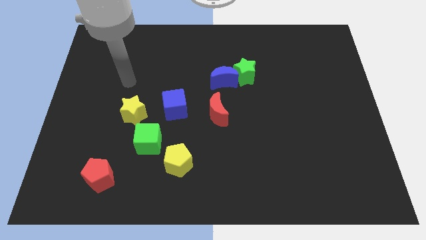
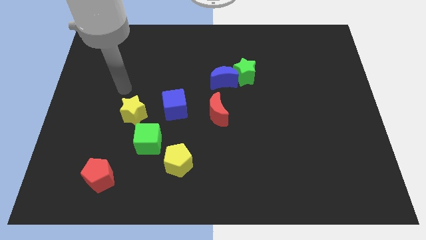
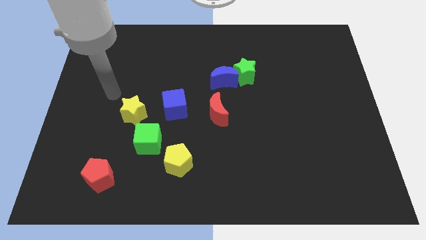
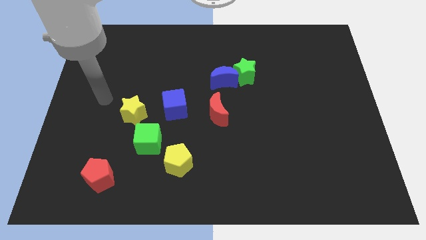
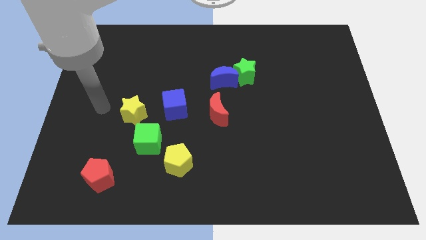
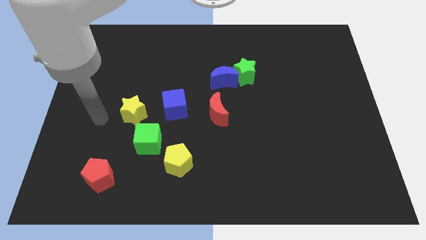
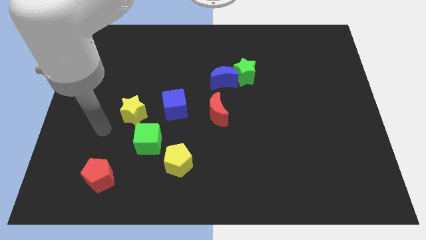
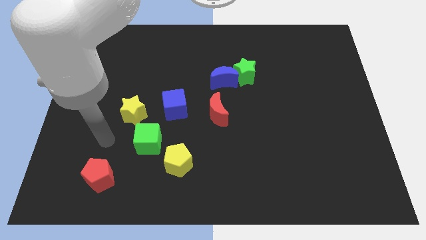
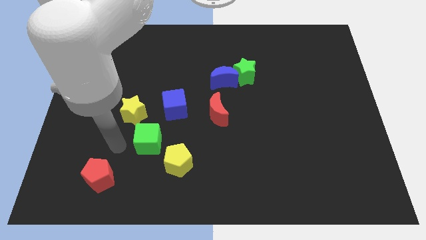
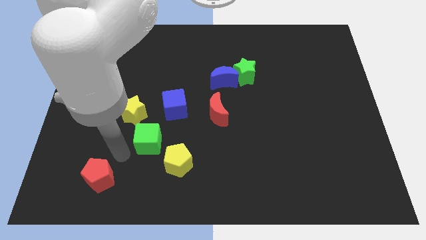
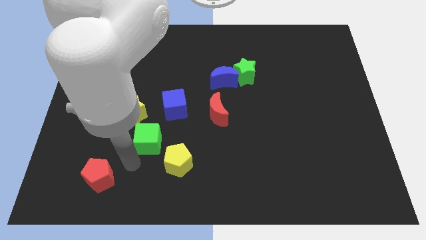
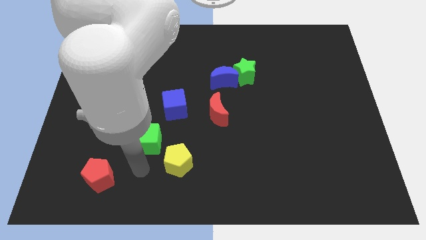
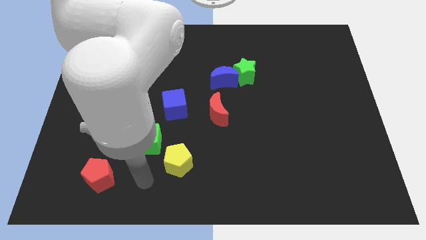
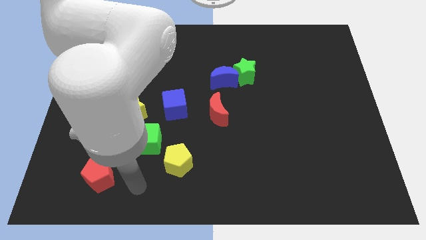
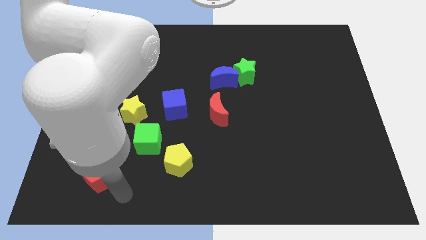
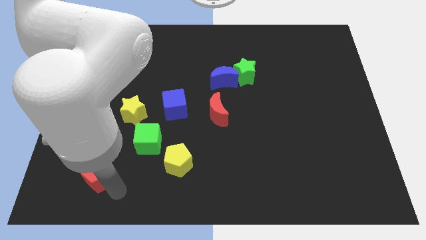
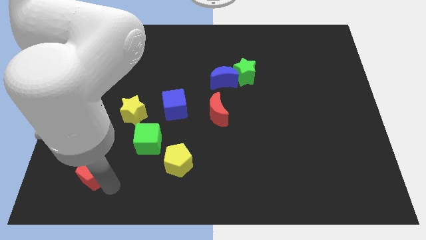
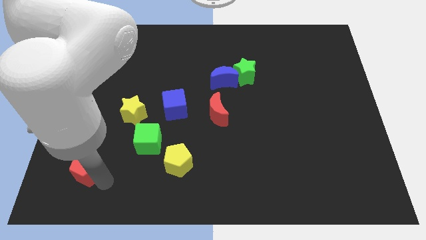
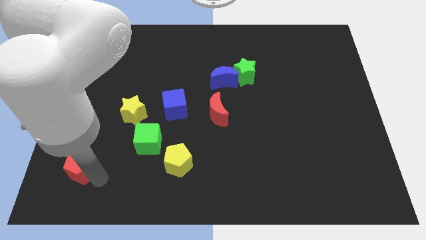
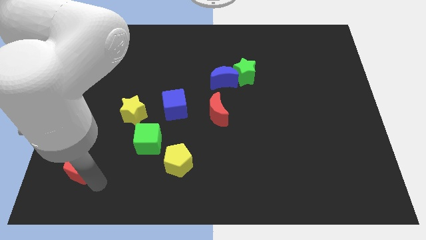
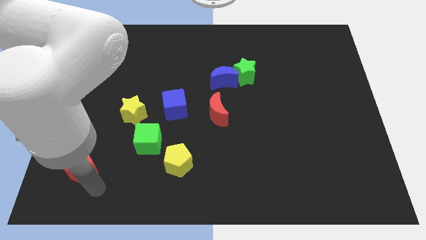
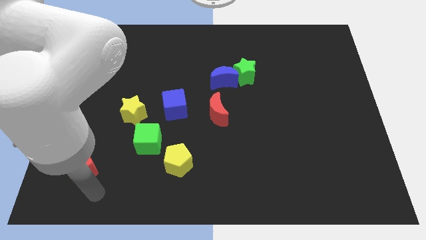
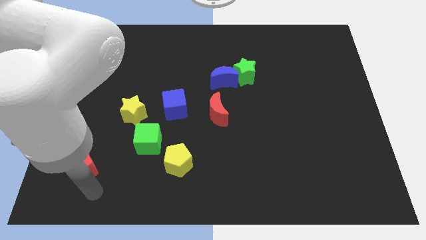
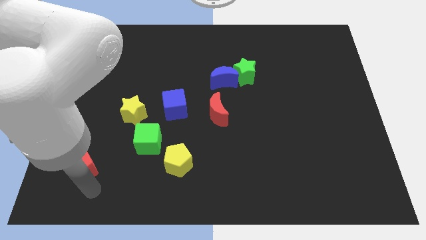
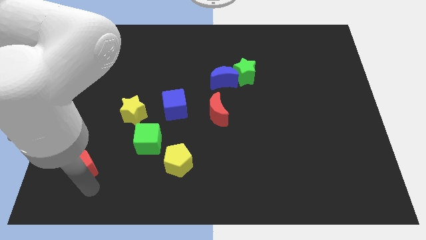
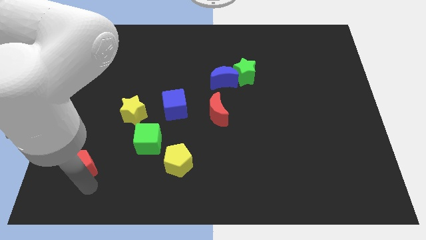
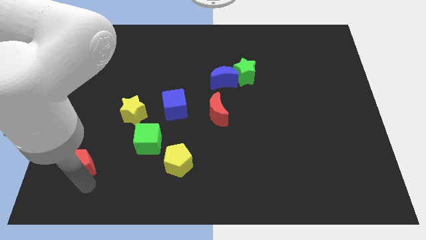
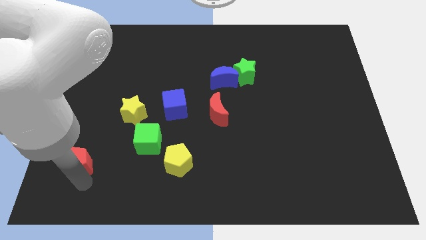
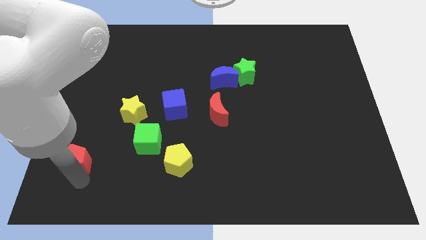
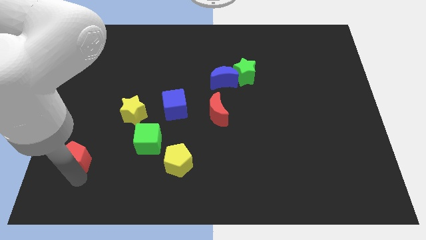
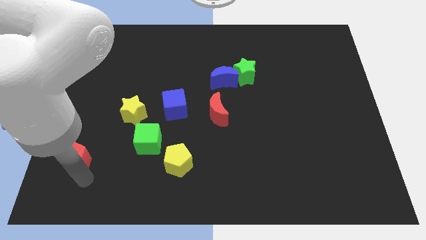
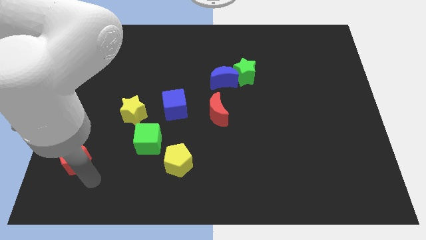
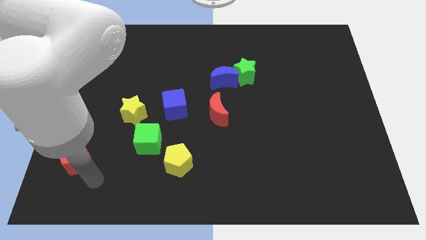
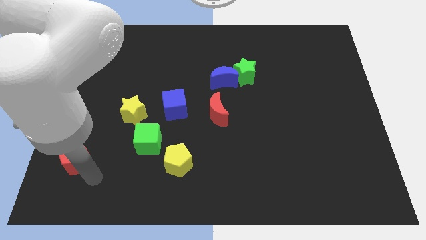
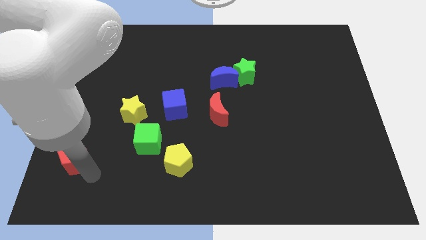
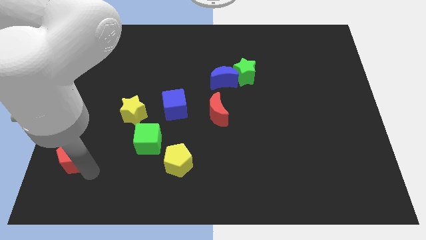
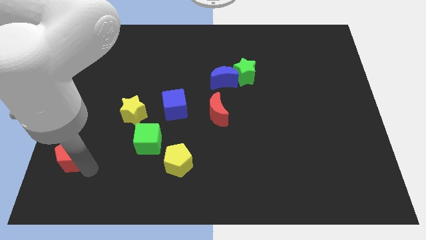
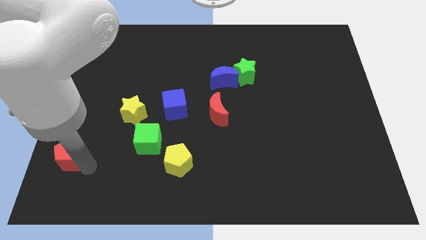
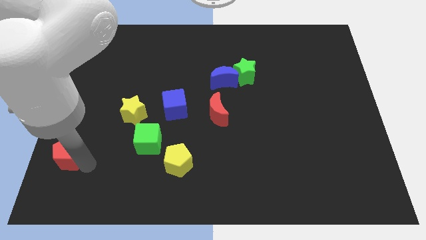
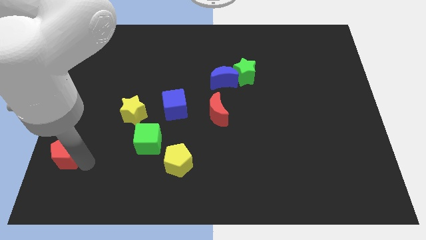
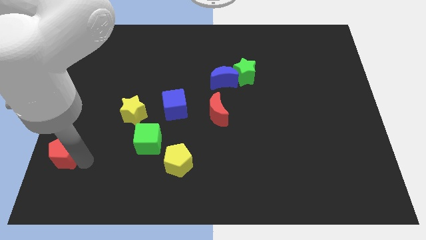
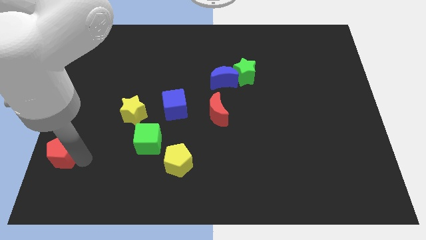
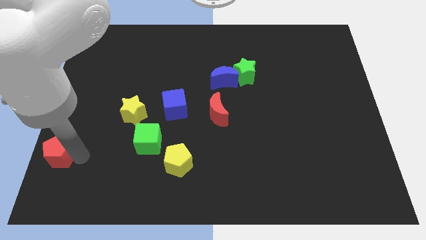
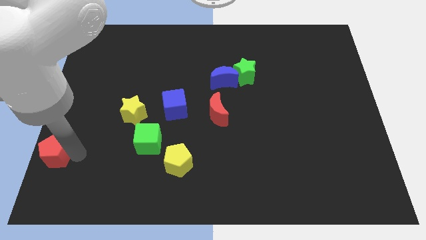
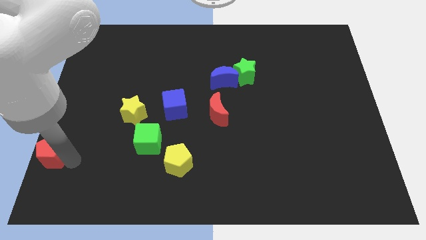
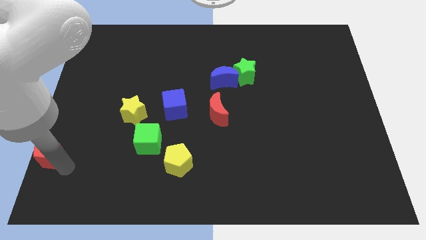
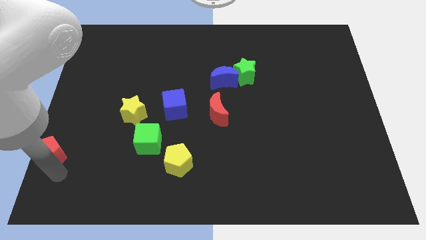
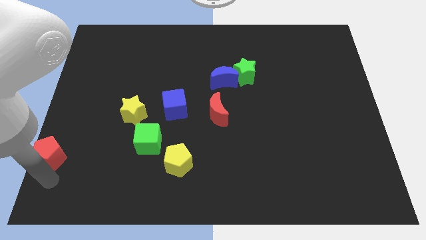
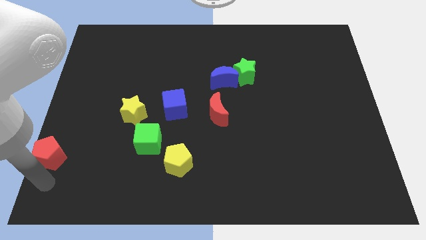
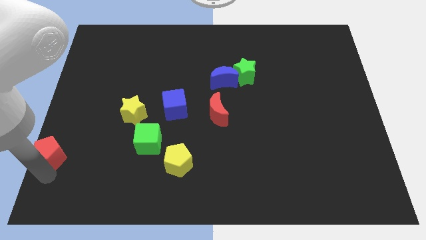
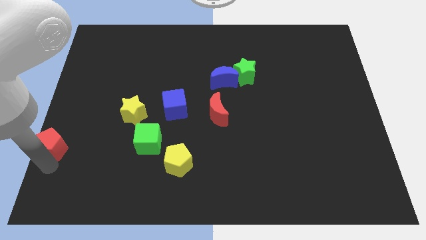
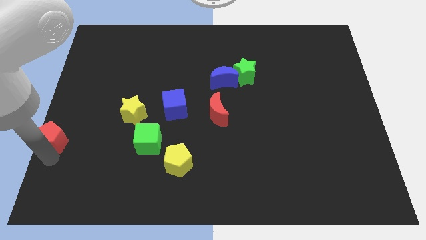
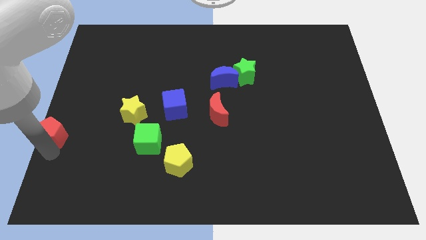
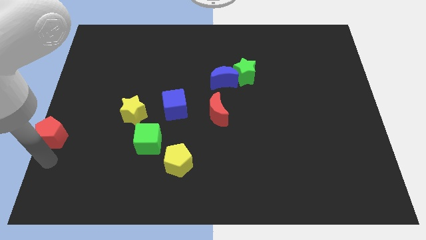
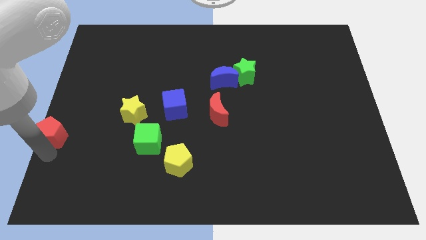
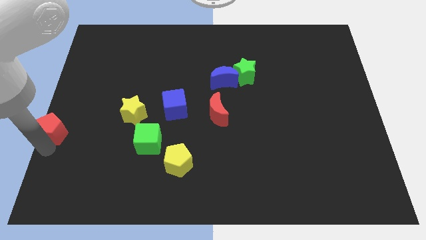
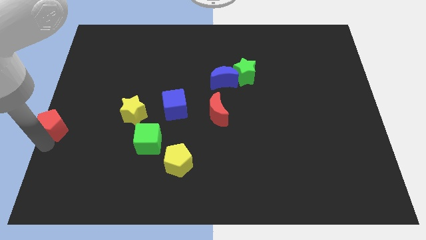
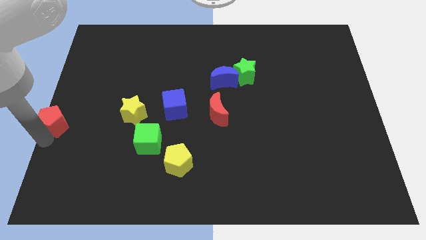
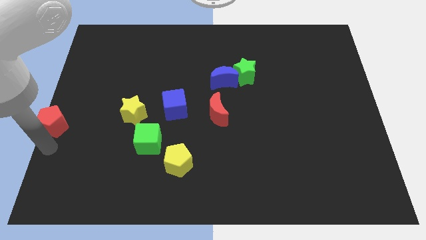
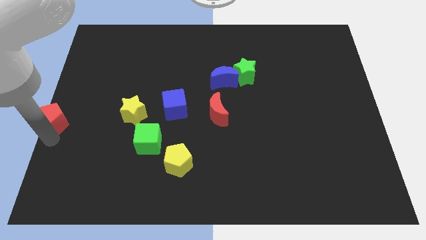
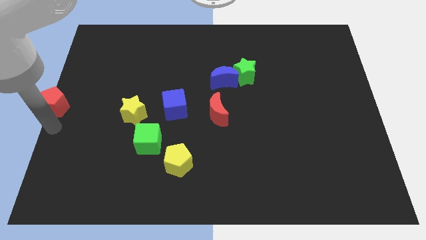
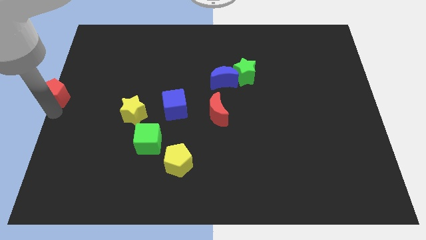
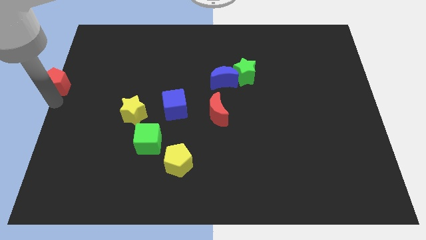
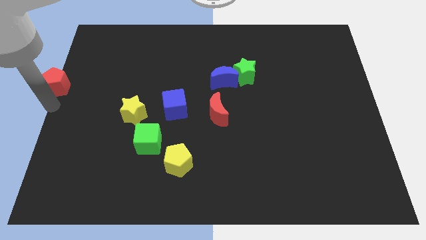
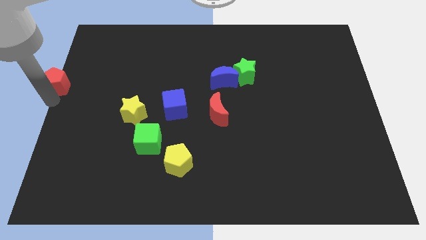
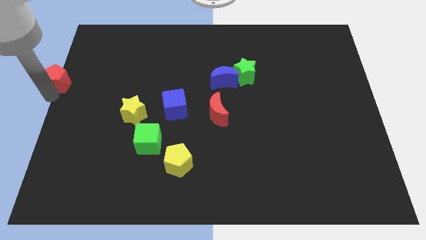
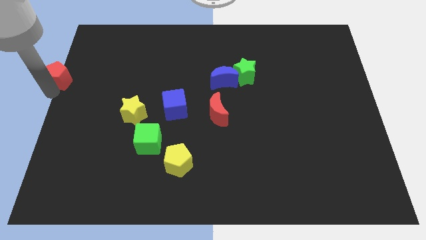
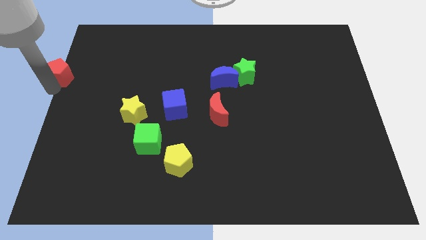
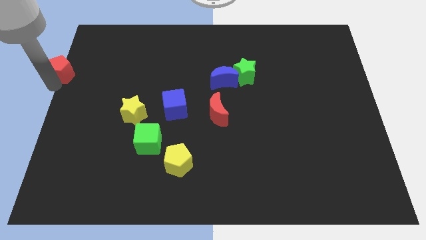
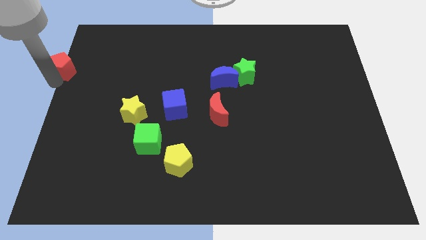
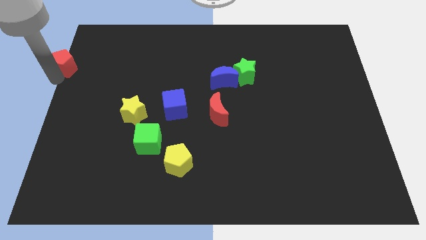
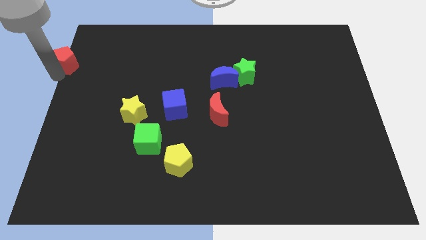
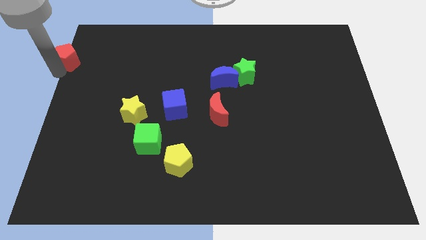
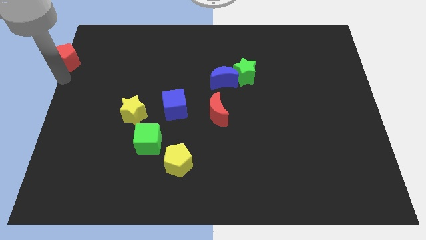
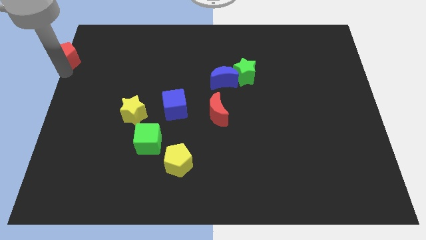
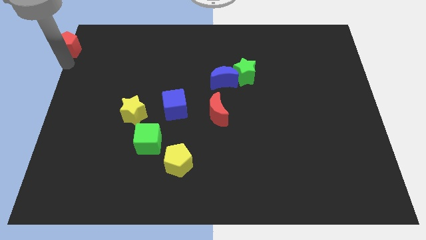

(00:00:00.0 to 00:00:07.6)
slide the red pentagon to the top left

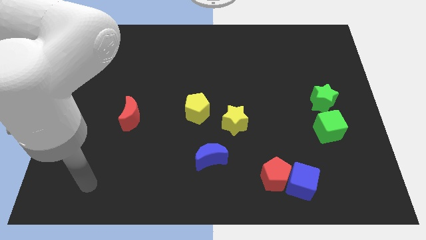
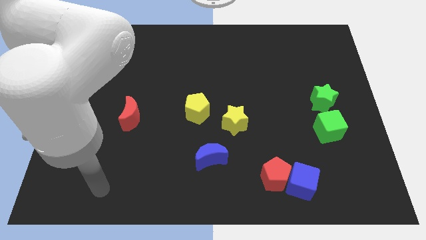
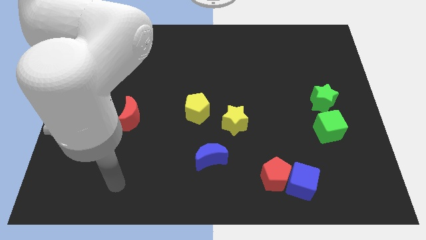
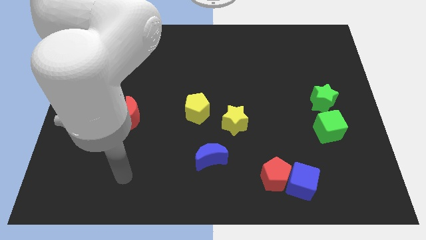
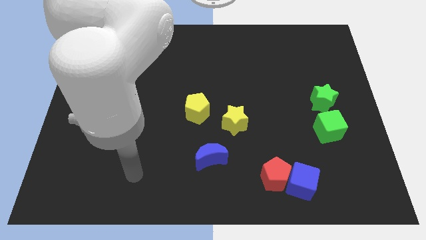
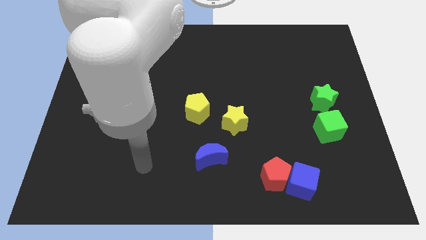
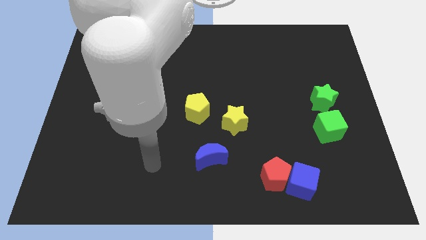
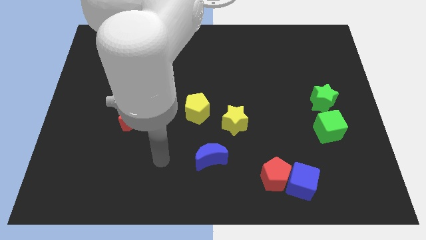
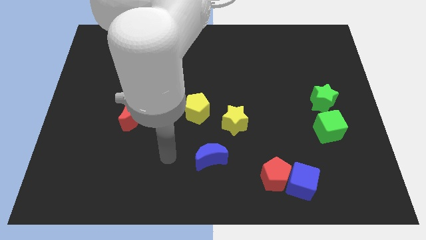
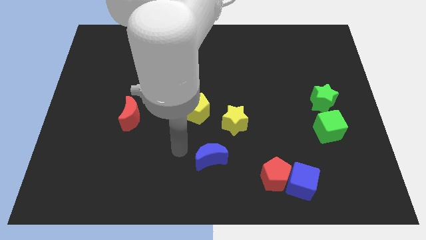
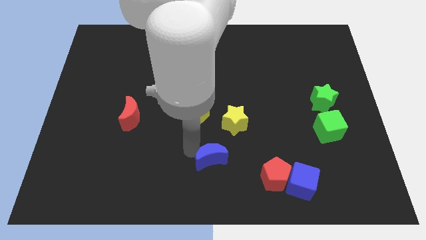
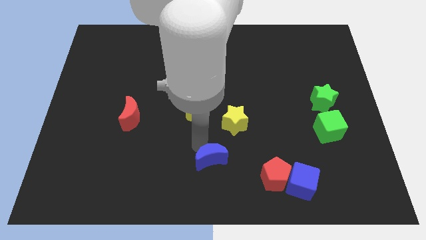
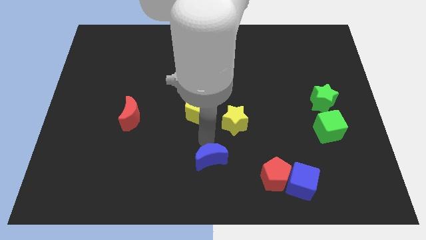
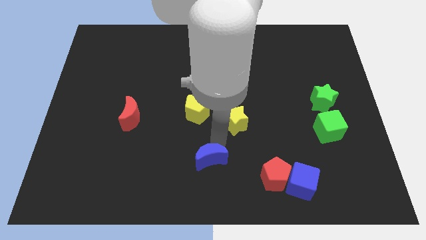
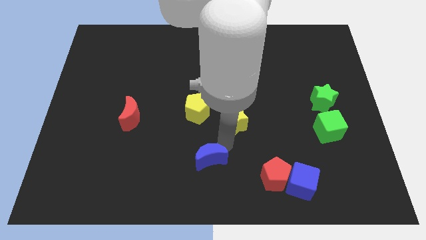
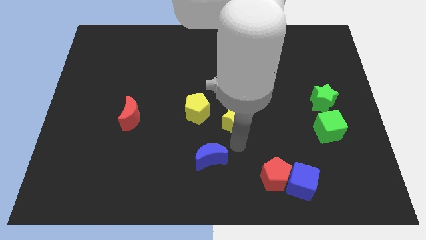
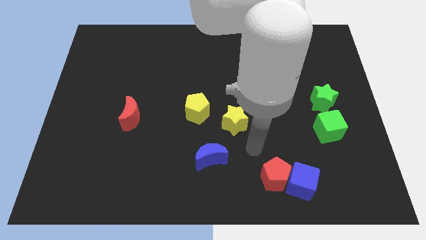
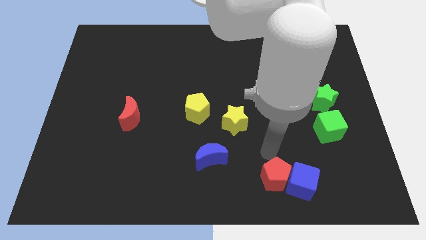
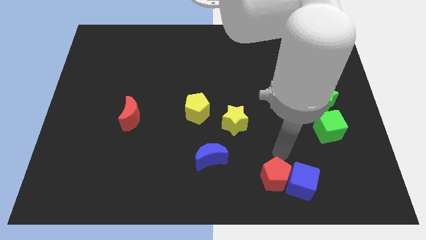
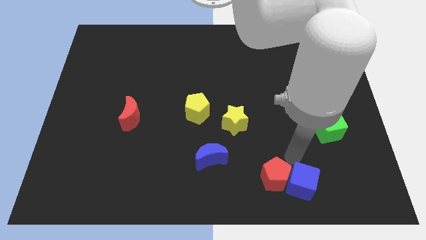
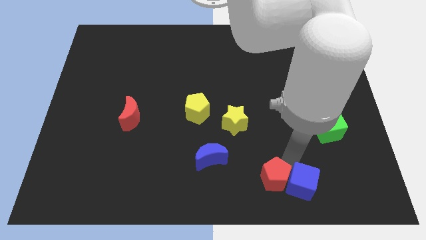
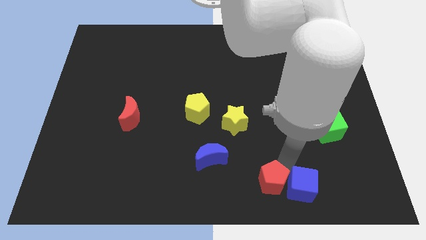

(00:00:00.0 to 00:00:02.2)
move the red pentagon to the bottom
